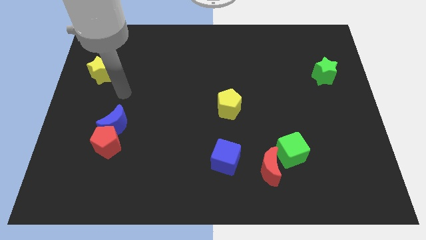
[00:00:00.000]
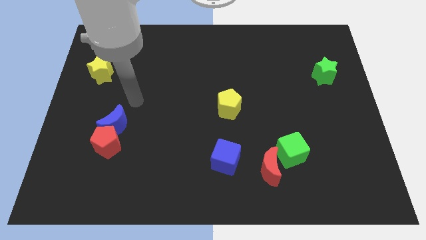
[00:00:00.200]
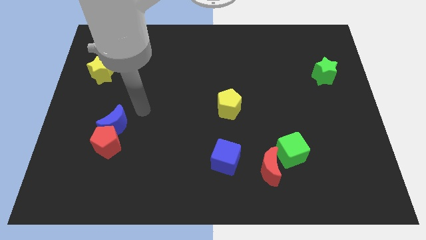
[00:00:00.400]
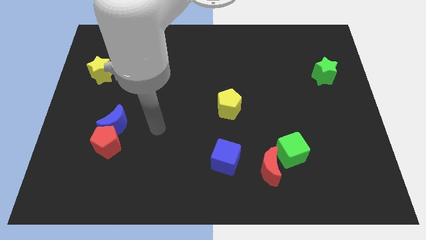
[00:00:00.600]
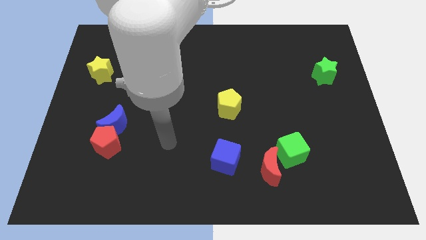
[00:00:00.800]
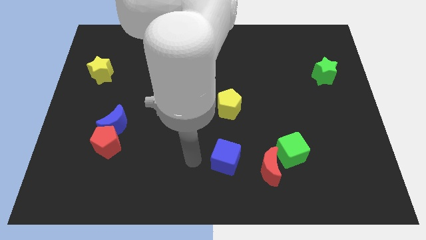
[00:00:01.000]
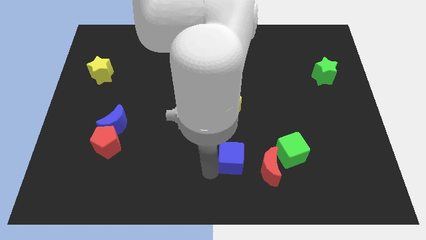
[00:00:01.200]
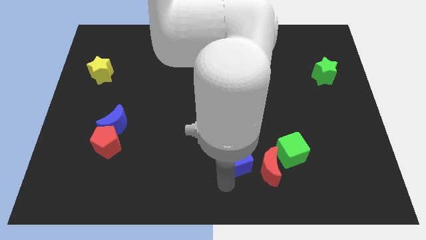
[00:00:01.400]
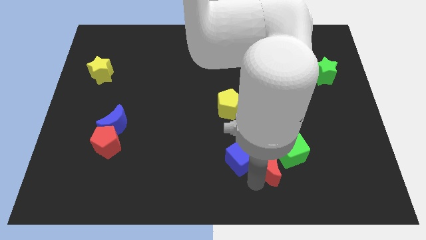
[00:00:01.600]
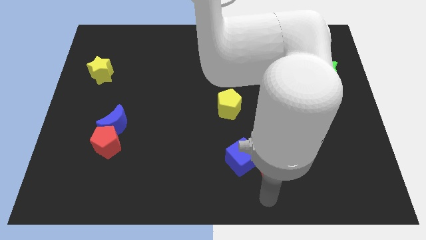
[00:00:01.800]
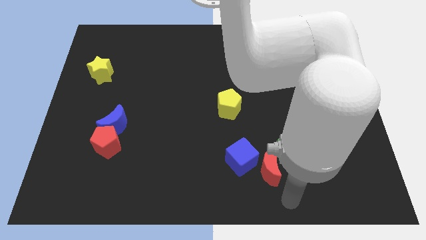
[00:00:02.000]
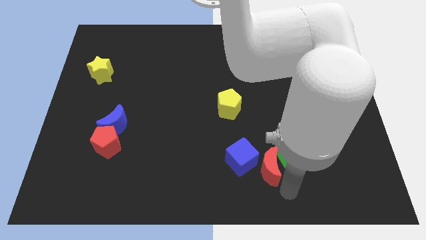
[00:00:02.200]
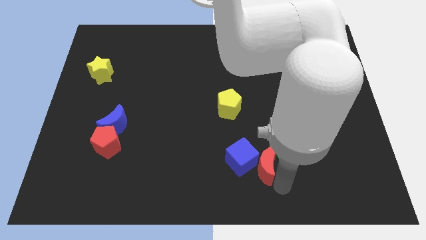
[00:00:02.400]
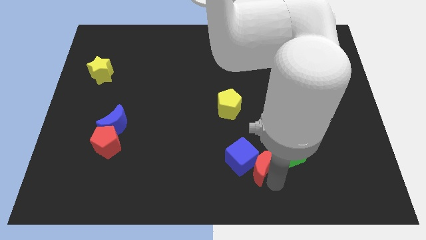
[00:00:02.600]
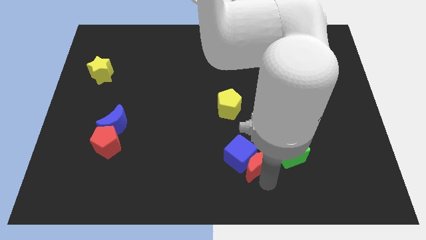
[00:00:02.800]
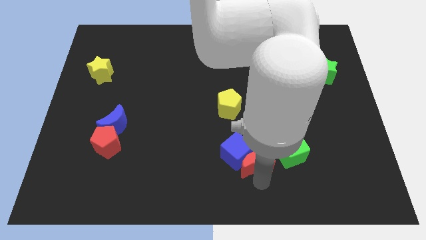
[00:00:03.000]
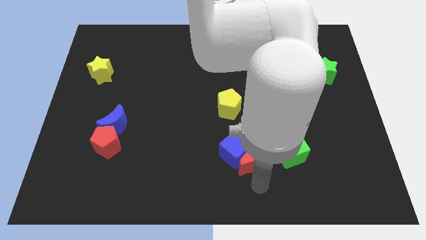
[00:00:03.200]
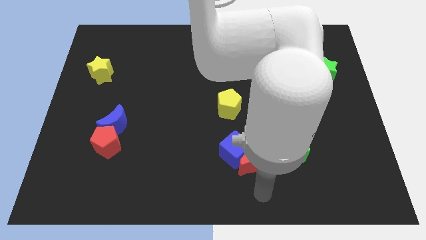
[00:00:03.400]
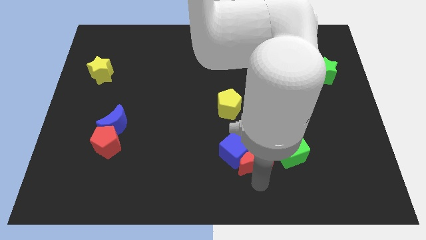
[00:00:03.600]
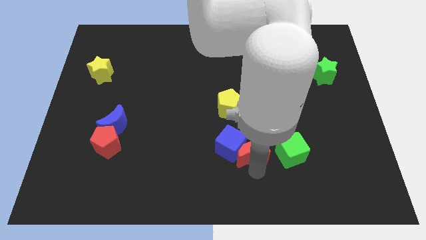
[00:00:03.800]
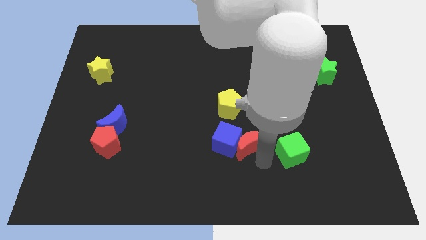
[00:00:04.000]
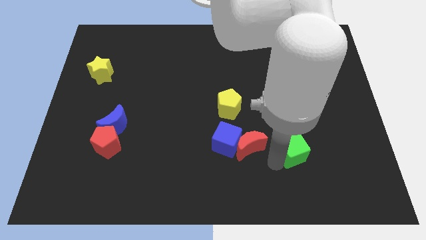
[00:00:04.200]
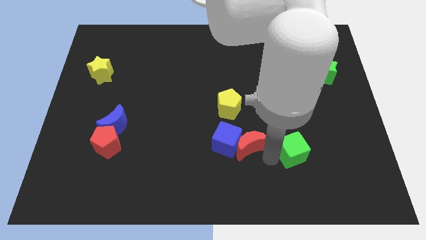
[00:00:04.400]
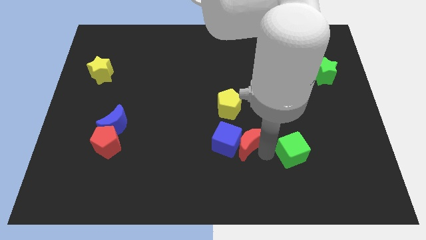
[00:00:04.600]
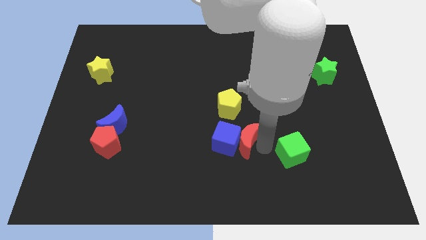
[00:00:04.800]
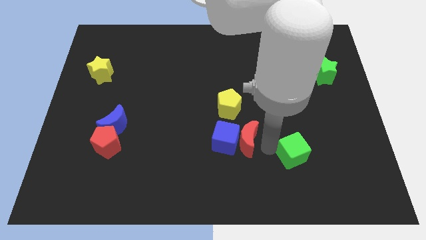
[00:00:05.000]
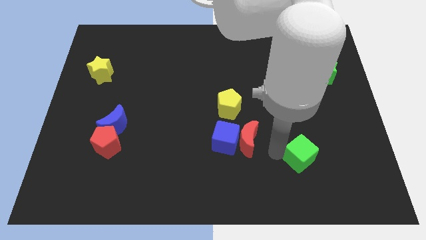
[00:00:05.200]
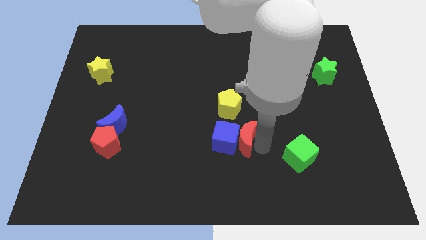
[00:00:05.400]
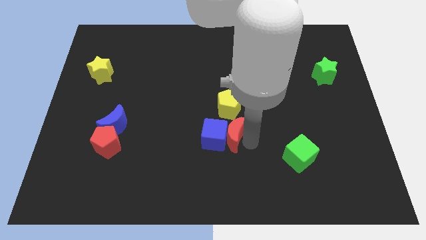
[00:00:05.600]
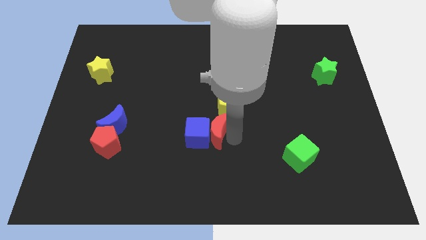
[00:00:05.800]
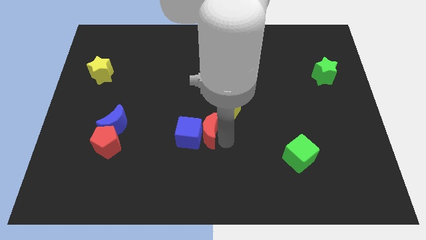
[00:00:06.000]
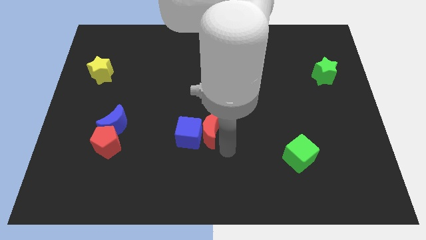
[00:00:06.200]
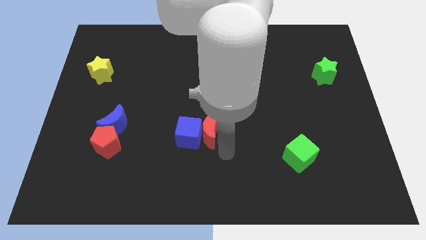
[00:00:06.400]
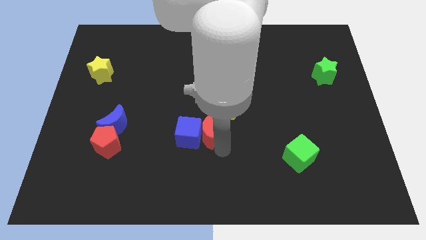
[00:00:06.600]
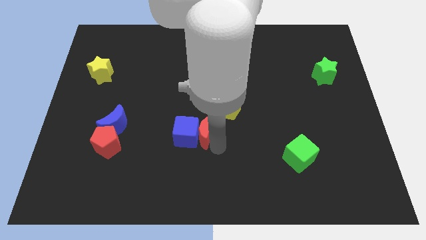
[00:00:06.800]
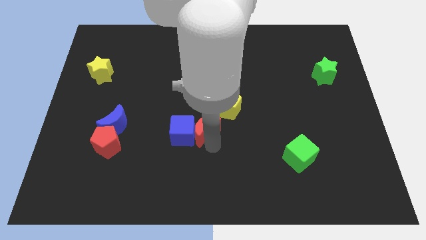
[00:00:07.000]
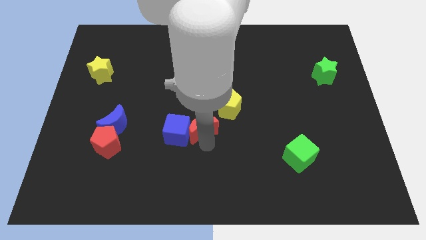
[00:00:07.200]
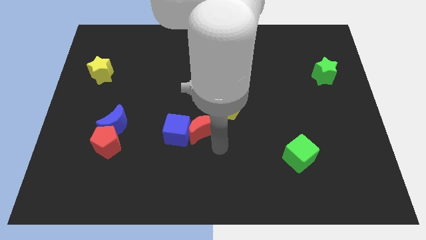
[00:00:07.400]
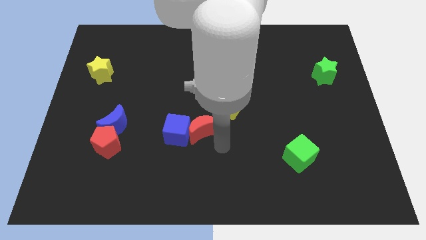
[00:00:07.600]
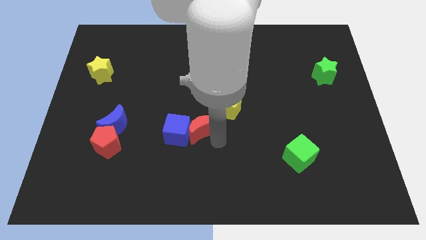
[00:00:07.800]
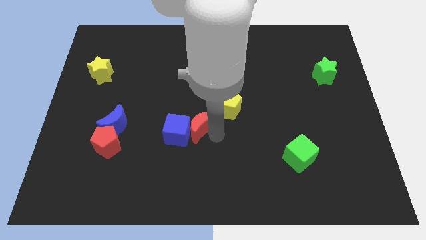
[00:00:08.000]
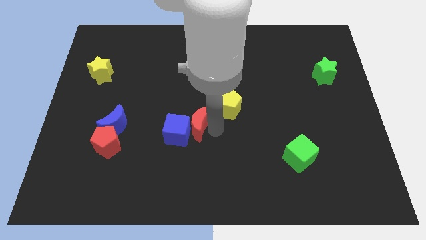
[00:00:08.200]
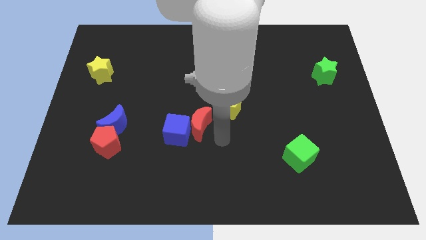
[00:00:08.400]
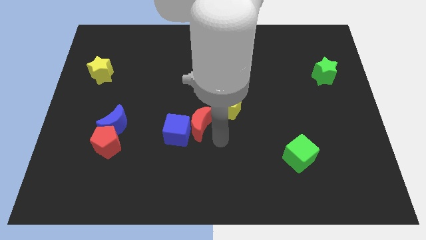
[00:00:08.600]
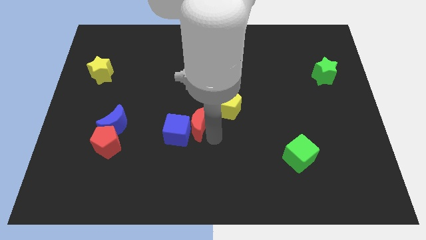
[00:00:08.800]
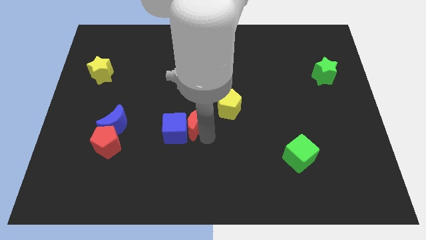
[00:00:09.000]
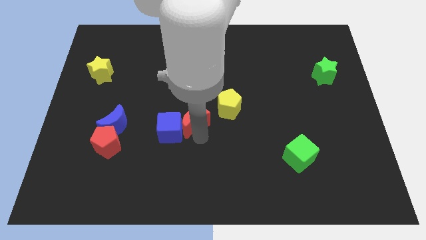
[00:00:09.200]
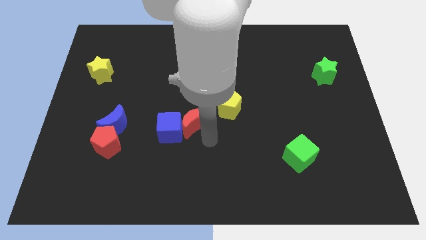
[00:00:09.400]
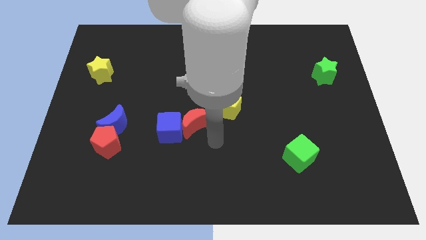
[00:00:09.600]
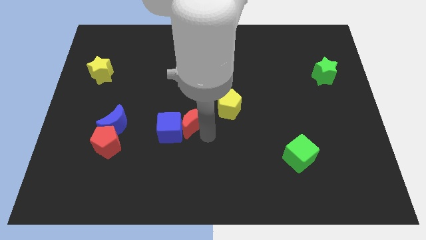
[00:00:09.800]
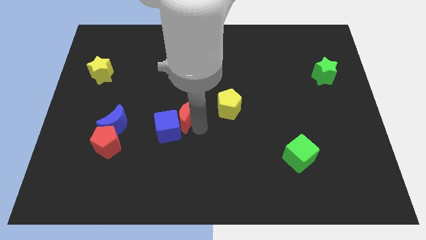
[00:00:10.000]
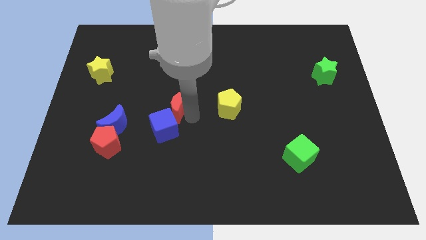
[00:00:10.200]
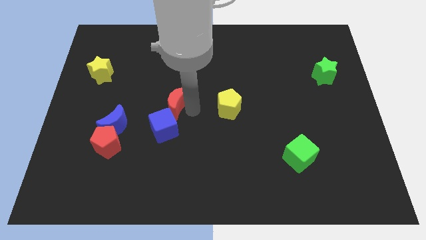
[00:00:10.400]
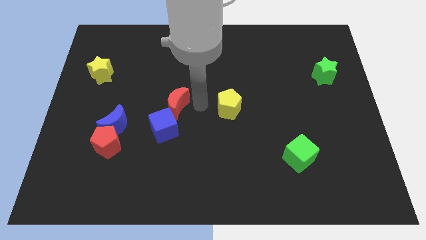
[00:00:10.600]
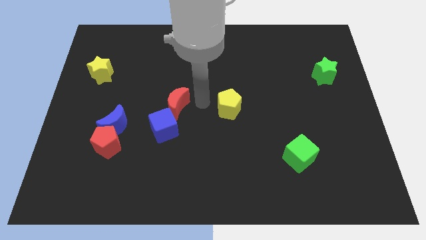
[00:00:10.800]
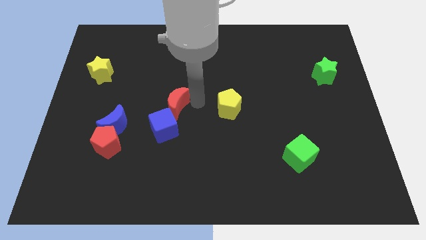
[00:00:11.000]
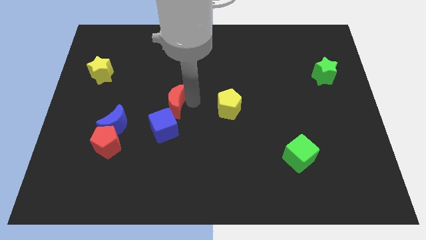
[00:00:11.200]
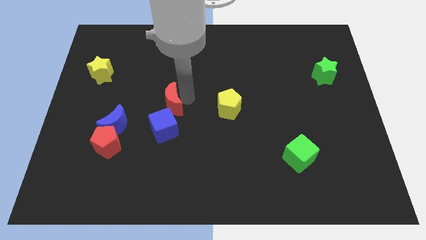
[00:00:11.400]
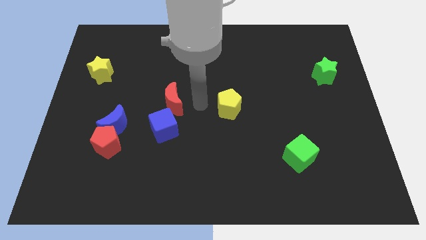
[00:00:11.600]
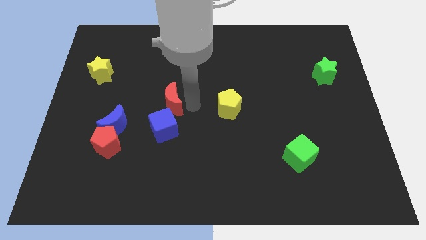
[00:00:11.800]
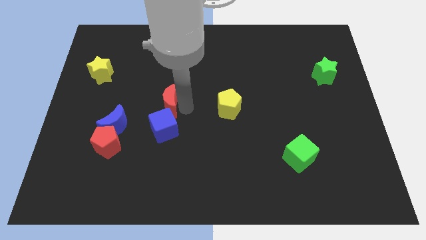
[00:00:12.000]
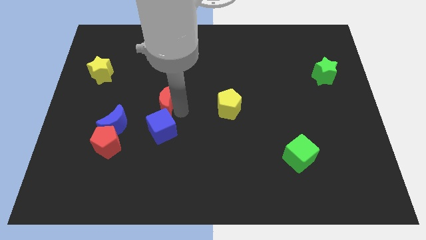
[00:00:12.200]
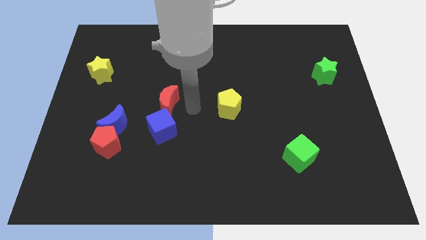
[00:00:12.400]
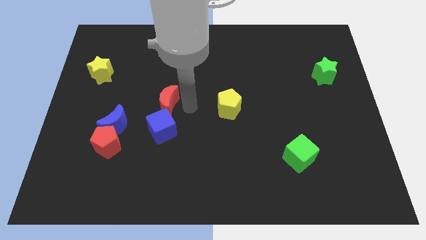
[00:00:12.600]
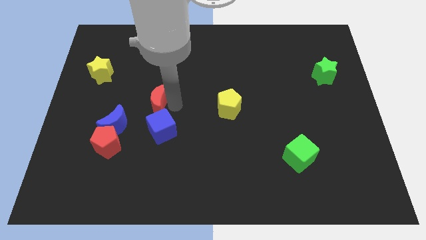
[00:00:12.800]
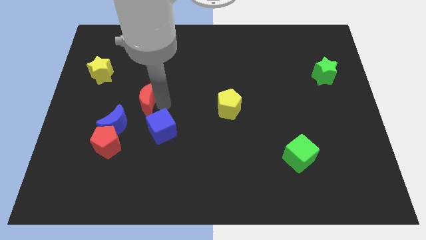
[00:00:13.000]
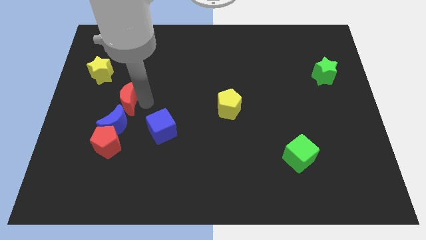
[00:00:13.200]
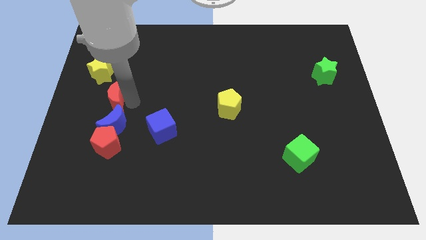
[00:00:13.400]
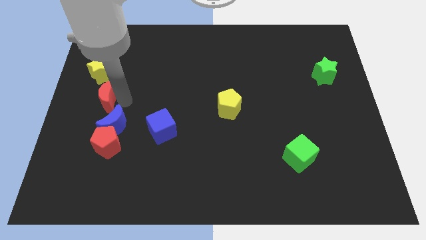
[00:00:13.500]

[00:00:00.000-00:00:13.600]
put the red moon to the left side
